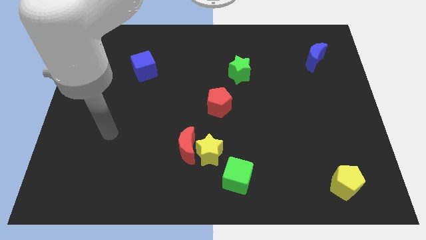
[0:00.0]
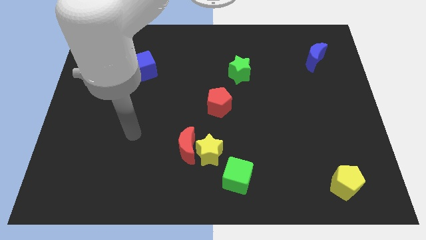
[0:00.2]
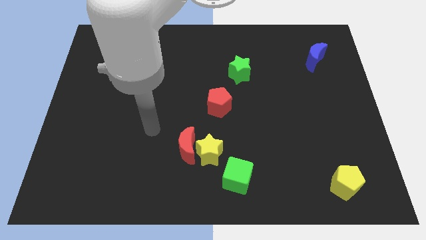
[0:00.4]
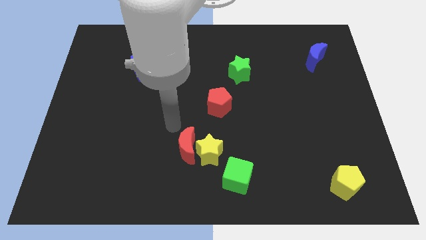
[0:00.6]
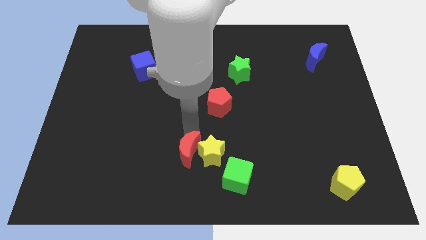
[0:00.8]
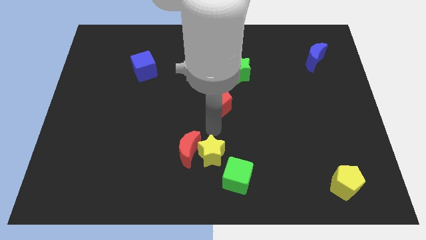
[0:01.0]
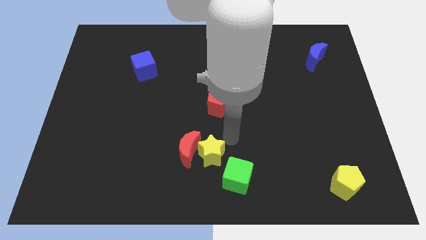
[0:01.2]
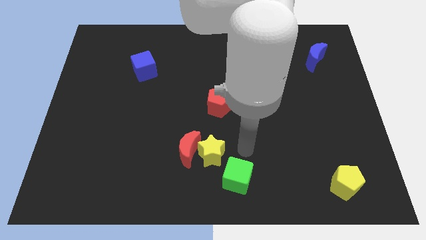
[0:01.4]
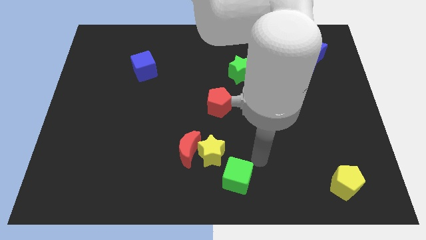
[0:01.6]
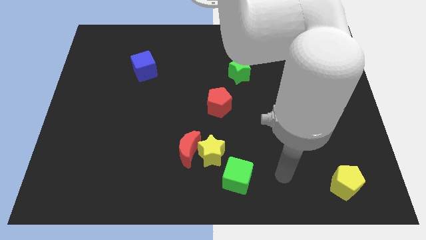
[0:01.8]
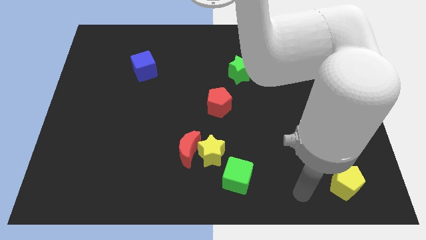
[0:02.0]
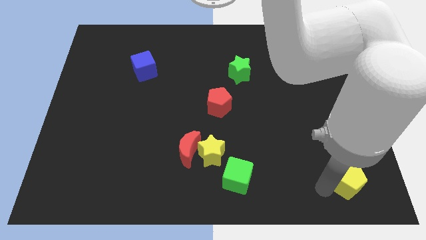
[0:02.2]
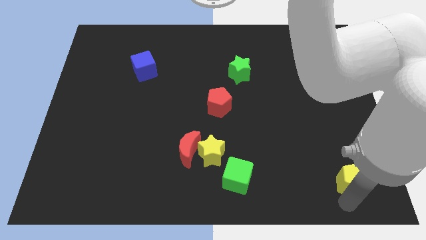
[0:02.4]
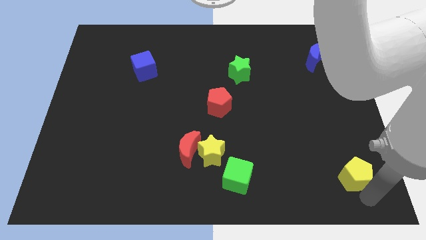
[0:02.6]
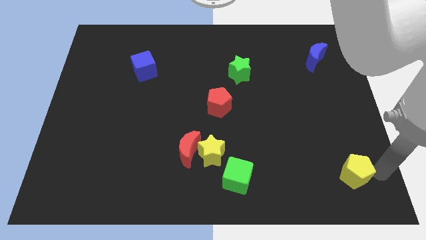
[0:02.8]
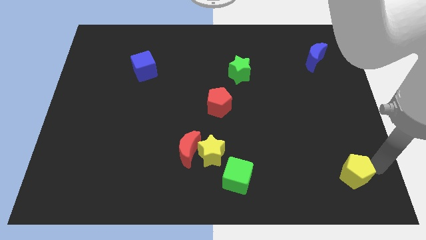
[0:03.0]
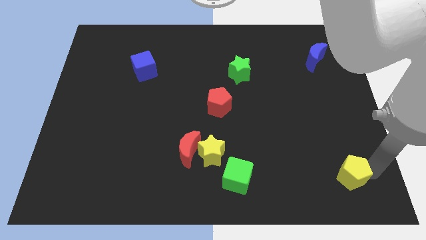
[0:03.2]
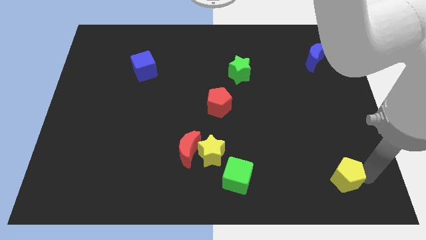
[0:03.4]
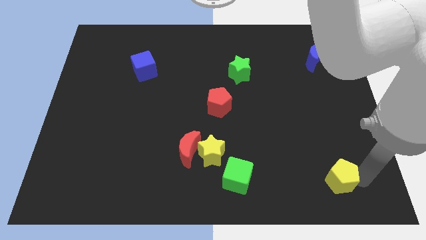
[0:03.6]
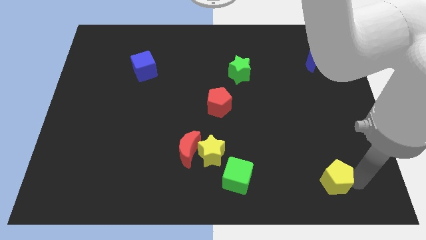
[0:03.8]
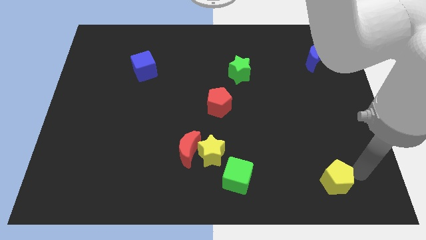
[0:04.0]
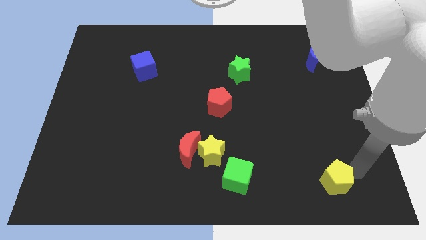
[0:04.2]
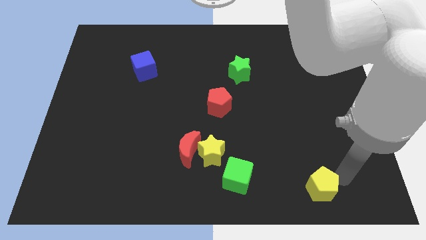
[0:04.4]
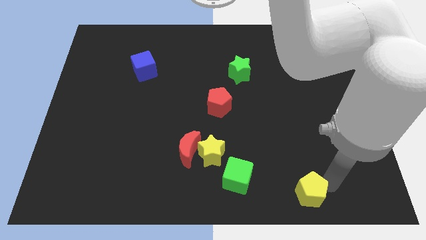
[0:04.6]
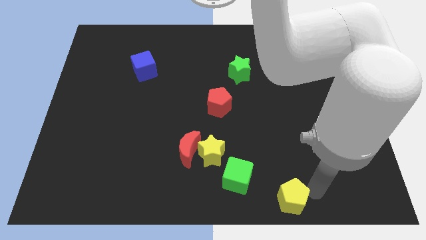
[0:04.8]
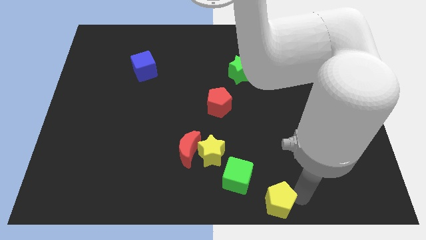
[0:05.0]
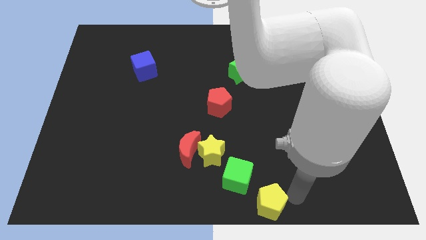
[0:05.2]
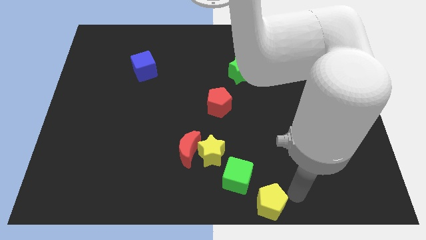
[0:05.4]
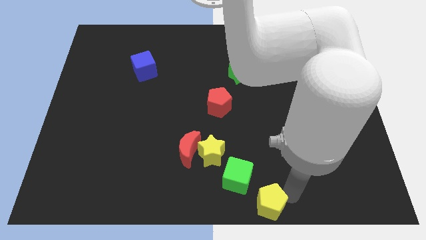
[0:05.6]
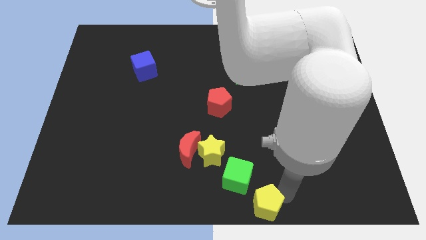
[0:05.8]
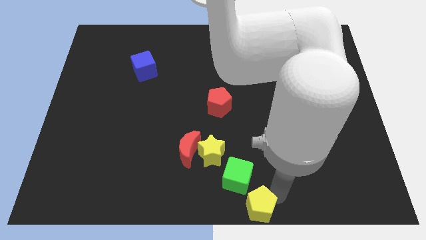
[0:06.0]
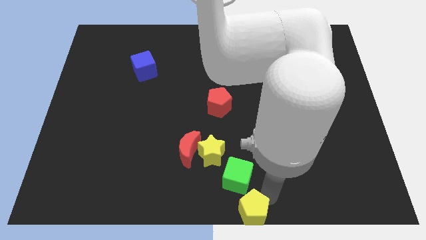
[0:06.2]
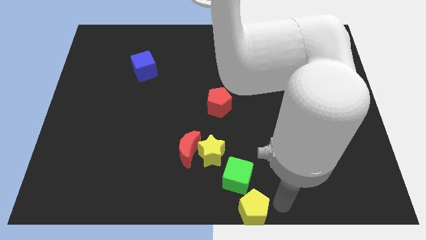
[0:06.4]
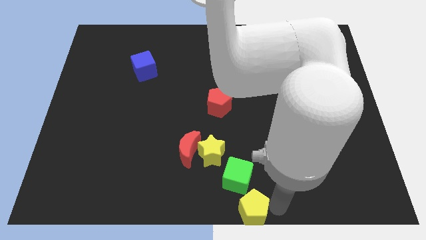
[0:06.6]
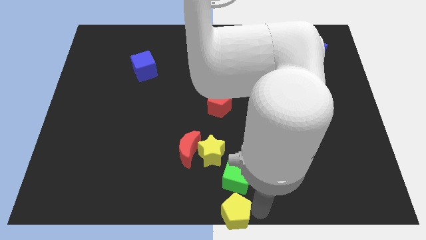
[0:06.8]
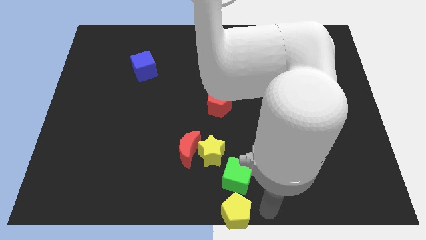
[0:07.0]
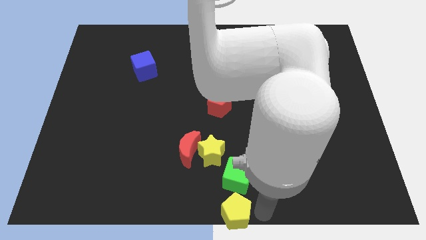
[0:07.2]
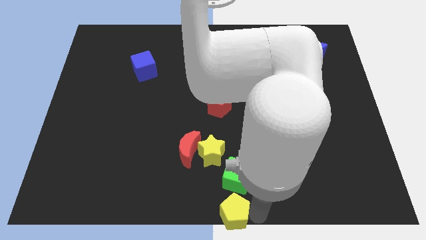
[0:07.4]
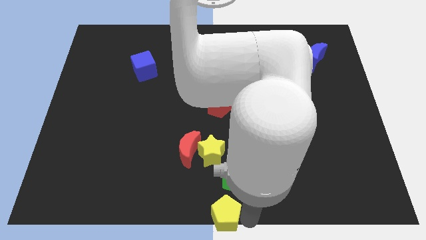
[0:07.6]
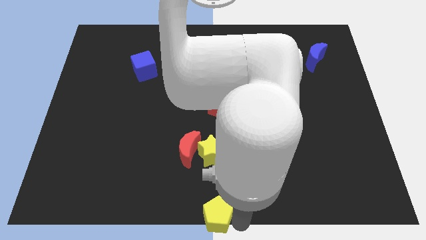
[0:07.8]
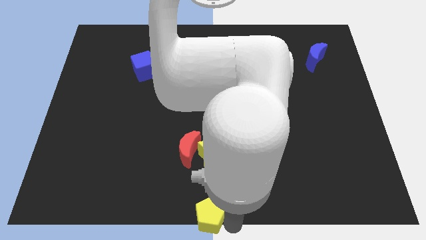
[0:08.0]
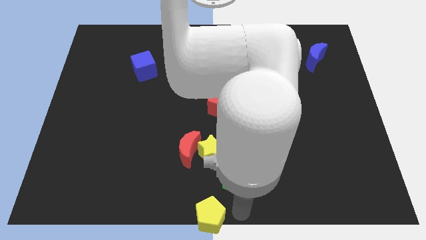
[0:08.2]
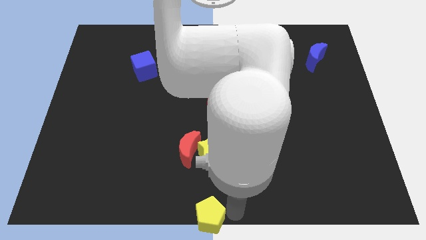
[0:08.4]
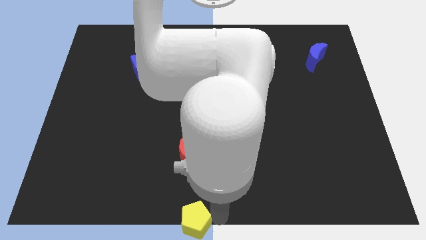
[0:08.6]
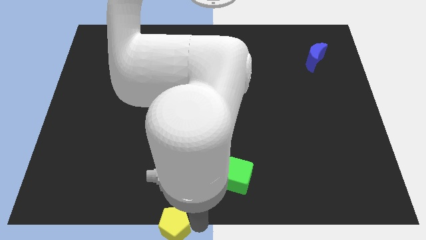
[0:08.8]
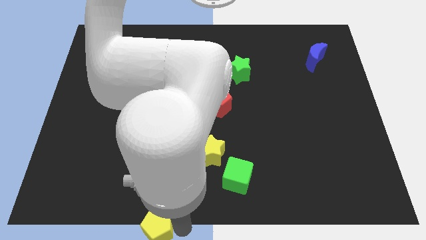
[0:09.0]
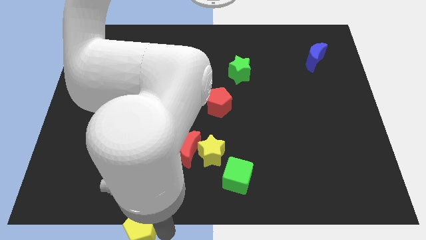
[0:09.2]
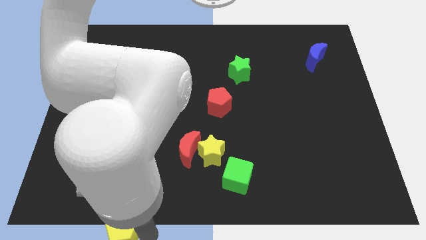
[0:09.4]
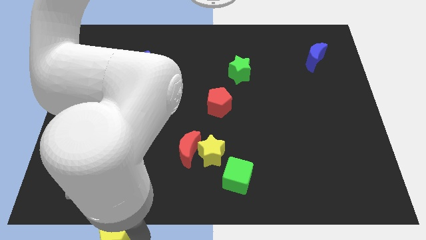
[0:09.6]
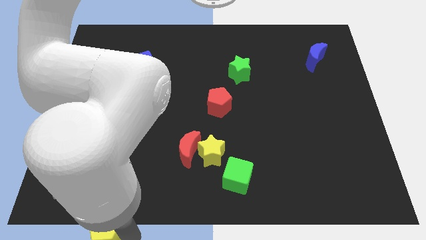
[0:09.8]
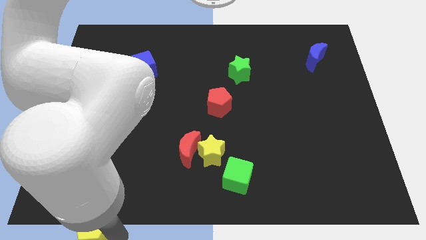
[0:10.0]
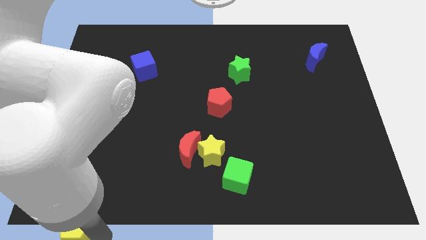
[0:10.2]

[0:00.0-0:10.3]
put the yellow pentagon to the bottom left of the board
